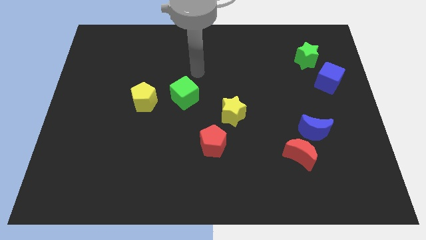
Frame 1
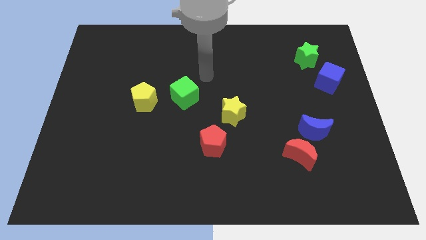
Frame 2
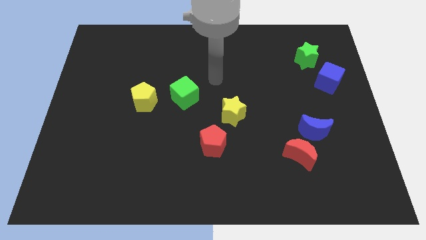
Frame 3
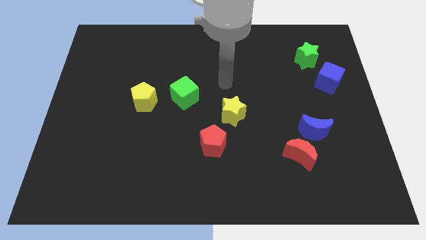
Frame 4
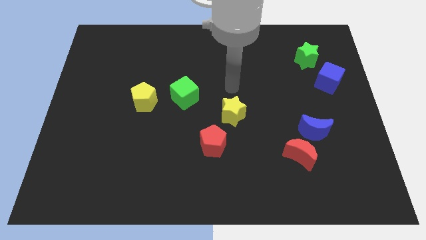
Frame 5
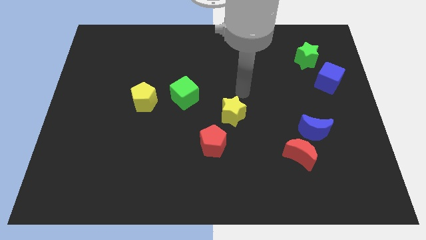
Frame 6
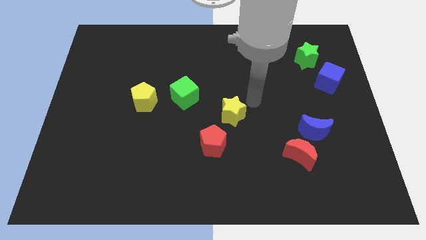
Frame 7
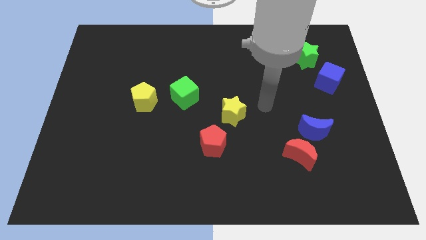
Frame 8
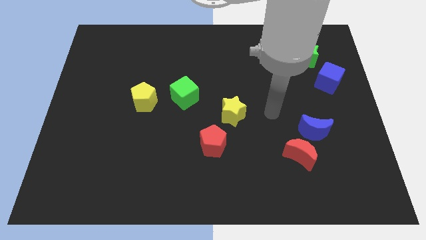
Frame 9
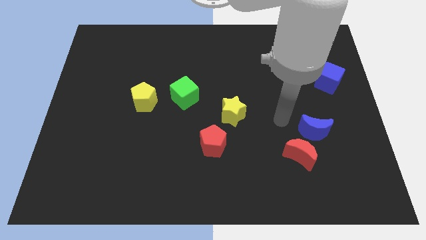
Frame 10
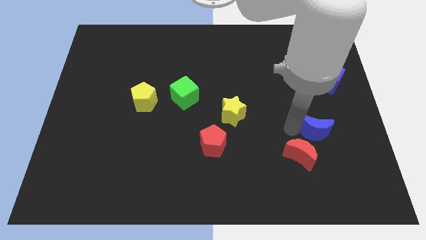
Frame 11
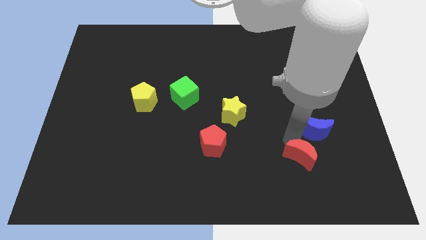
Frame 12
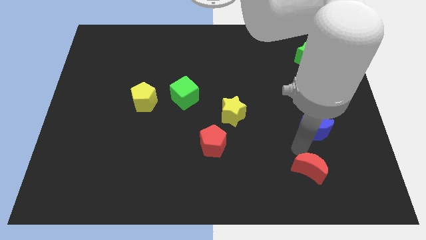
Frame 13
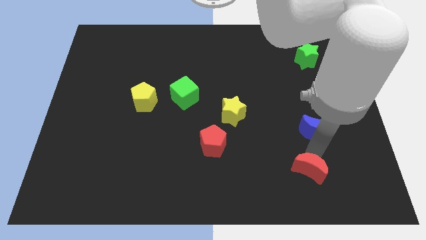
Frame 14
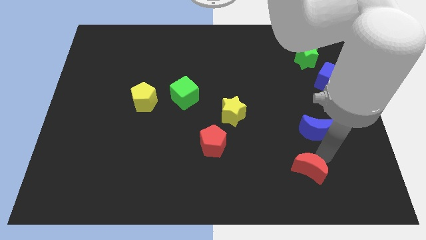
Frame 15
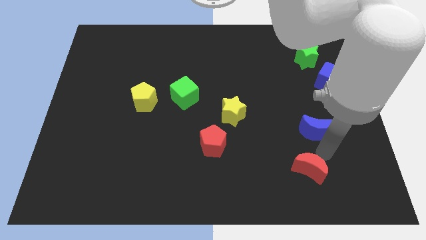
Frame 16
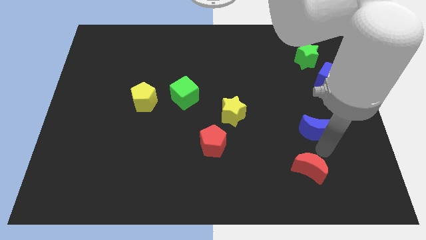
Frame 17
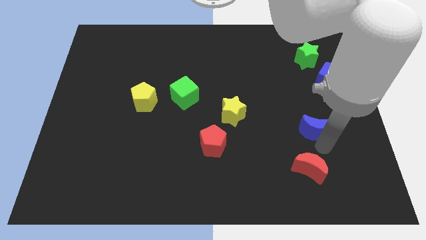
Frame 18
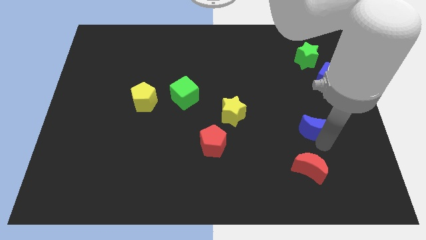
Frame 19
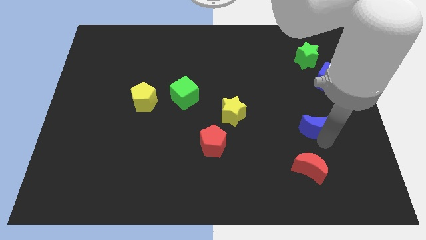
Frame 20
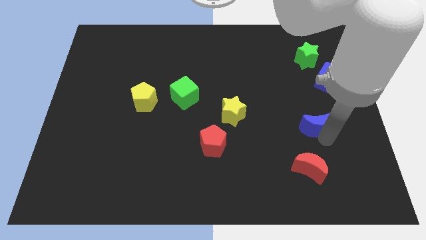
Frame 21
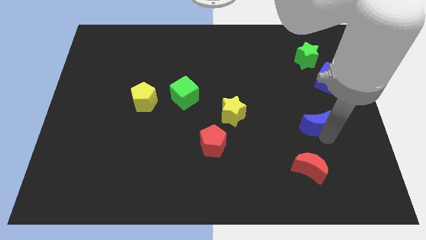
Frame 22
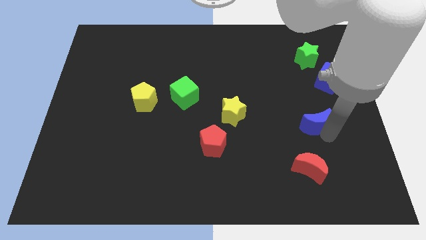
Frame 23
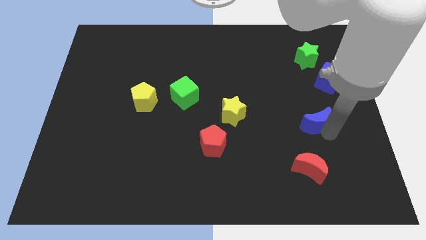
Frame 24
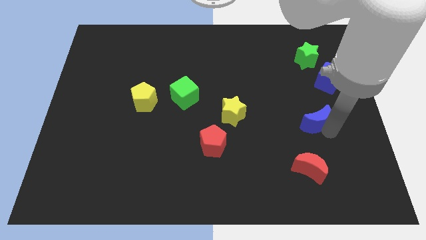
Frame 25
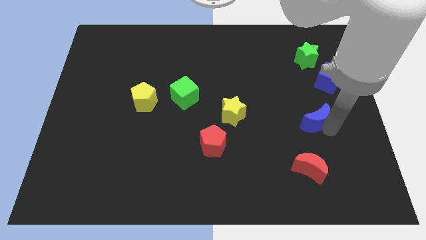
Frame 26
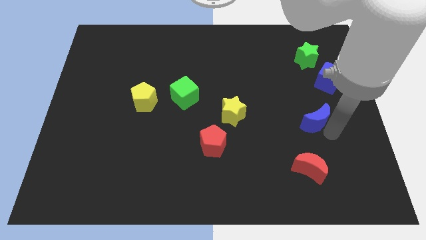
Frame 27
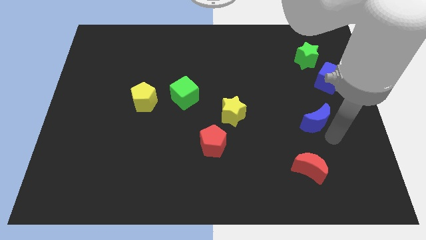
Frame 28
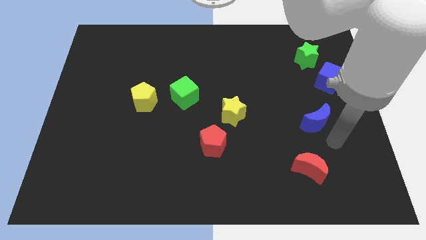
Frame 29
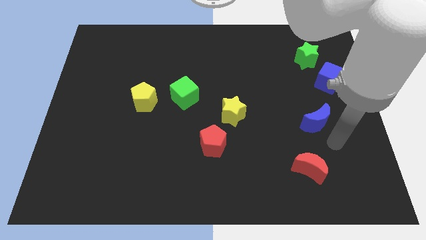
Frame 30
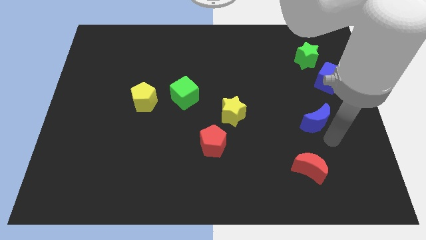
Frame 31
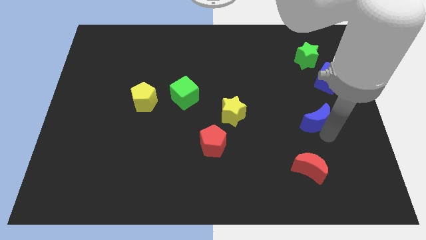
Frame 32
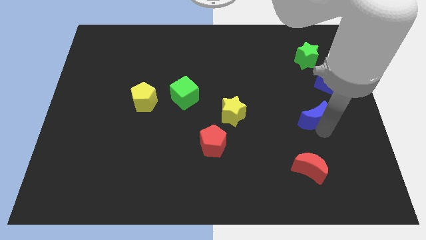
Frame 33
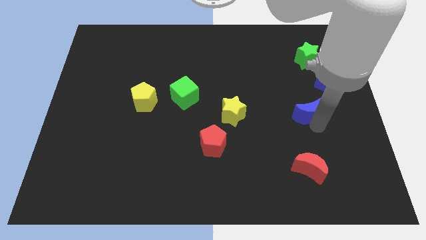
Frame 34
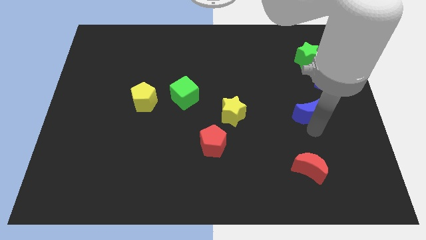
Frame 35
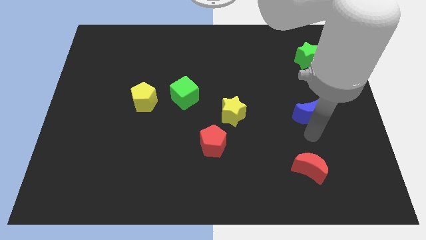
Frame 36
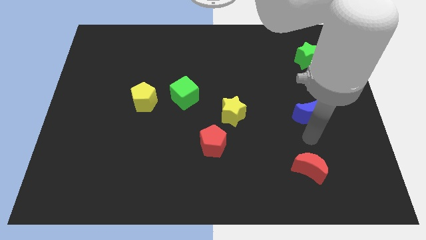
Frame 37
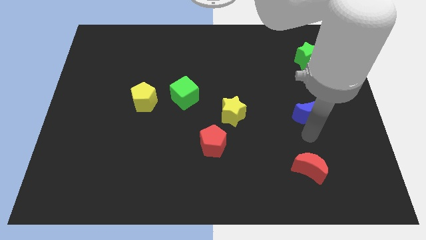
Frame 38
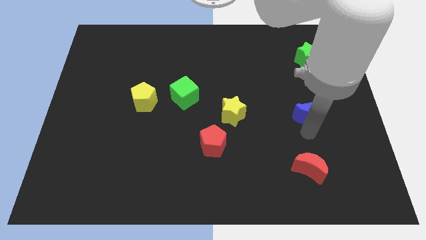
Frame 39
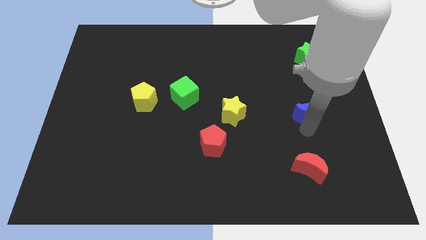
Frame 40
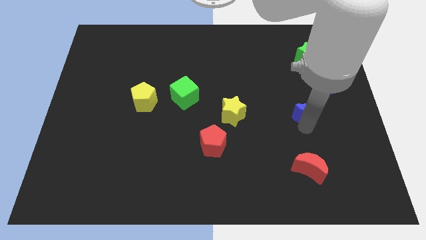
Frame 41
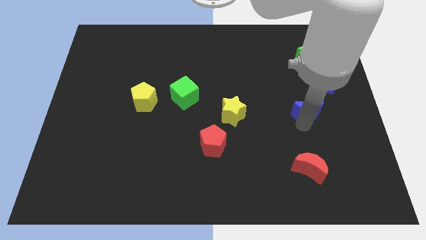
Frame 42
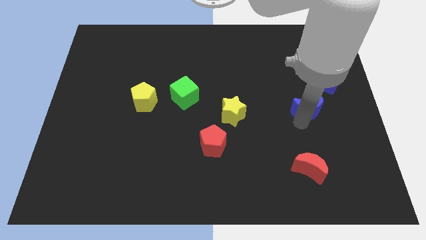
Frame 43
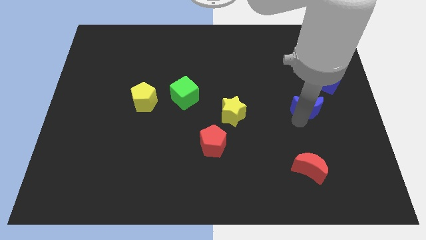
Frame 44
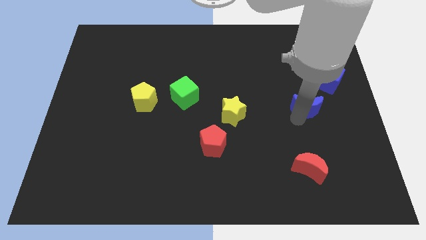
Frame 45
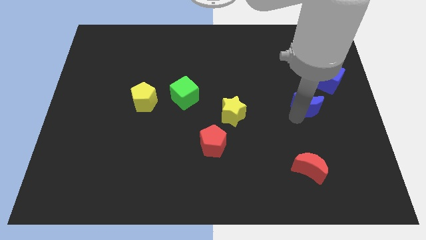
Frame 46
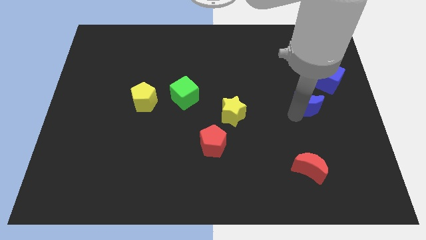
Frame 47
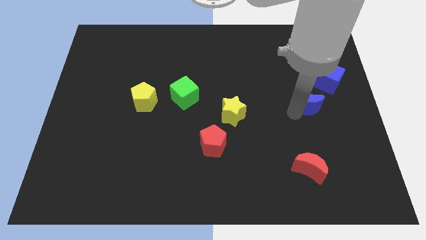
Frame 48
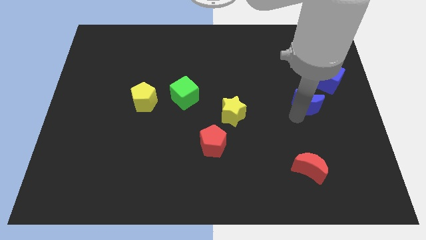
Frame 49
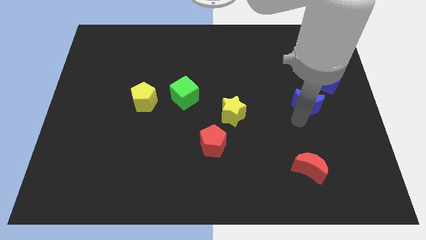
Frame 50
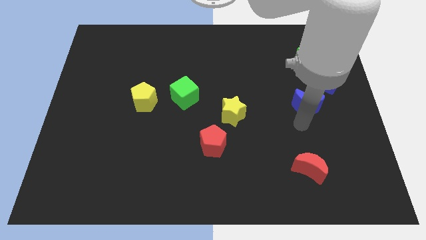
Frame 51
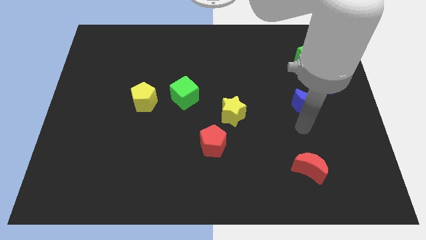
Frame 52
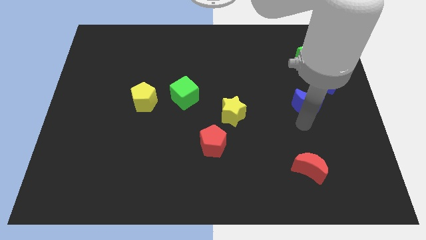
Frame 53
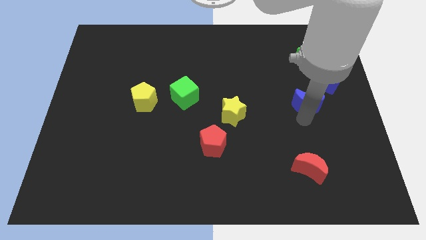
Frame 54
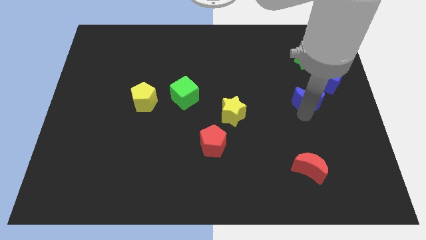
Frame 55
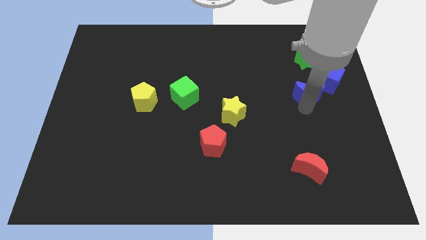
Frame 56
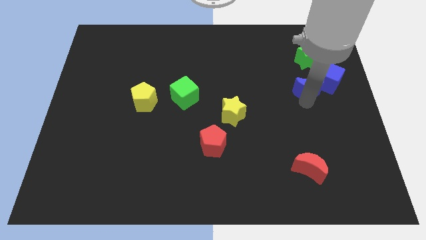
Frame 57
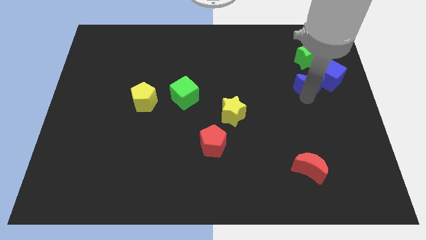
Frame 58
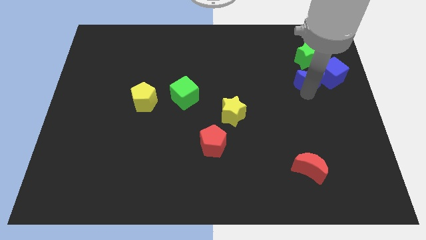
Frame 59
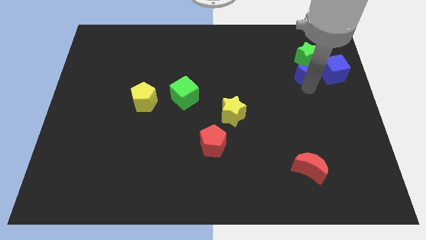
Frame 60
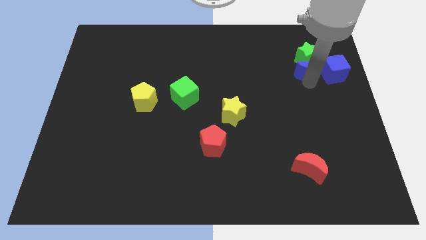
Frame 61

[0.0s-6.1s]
move the blue moon to the green star

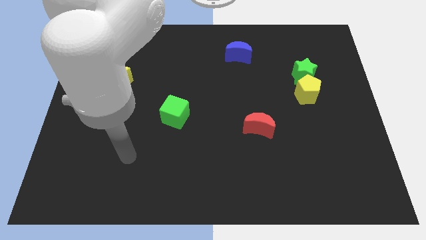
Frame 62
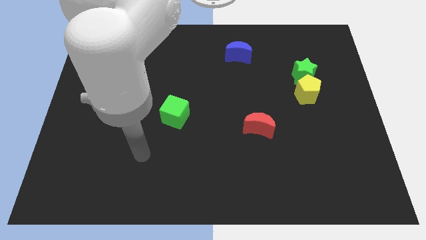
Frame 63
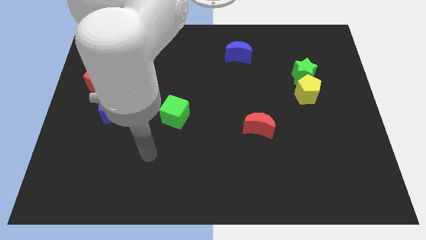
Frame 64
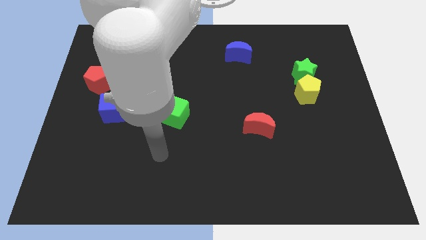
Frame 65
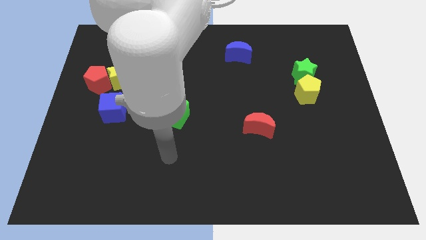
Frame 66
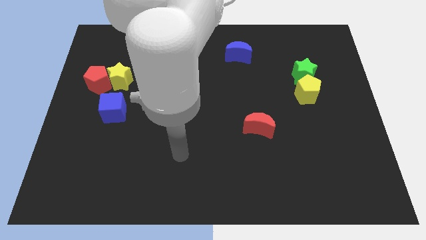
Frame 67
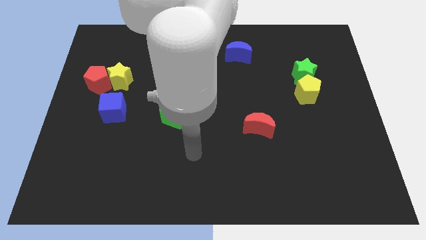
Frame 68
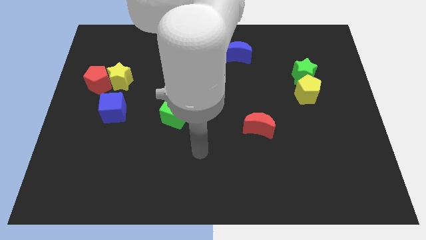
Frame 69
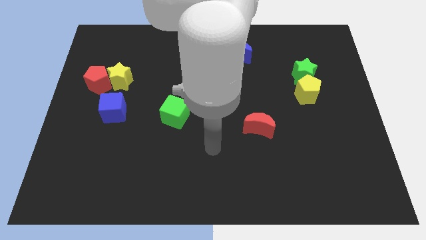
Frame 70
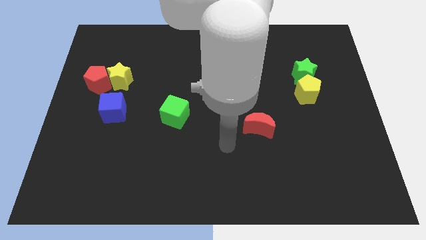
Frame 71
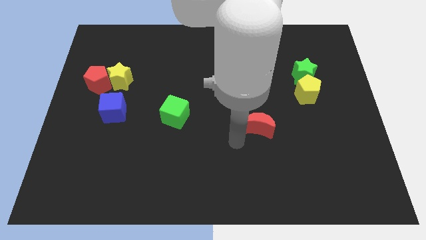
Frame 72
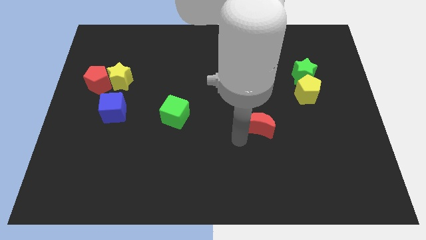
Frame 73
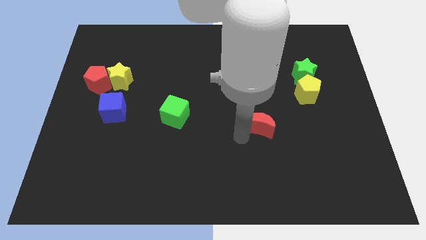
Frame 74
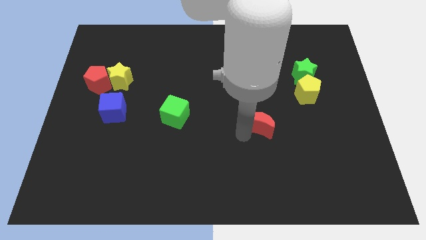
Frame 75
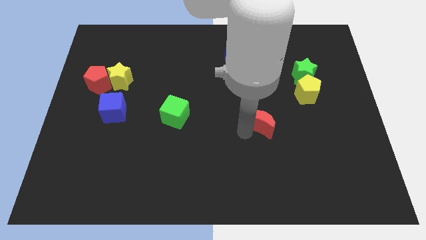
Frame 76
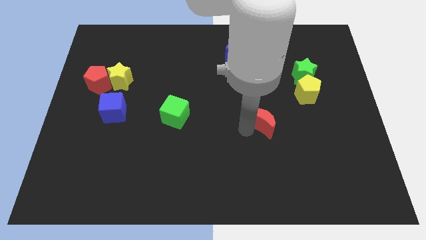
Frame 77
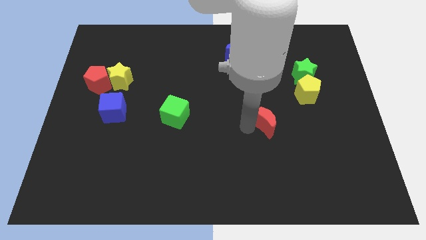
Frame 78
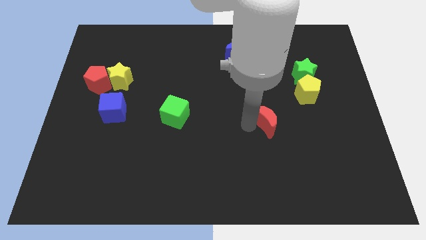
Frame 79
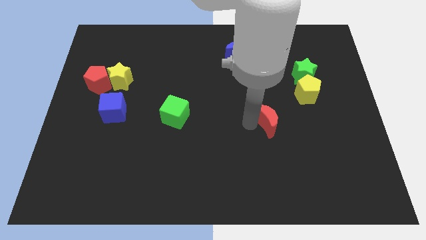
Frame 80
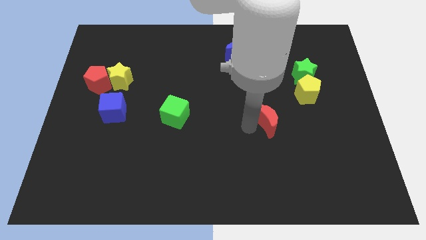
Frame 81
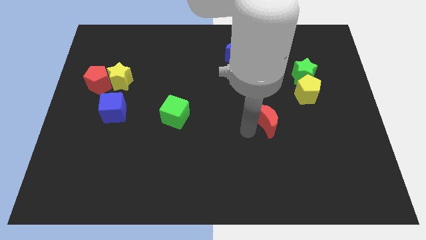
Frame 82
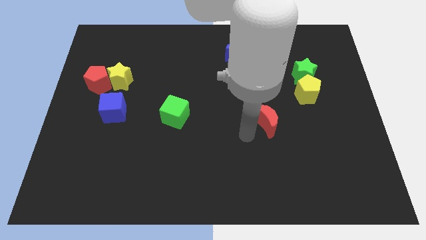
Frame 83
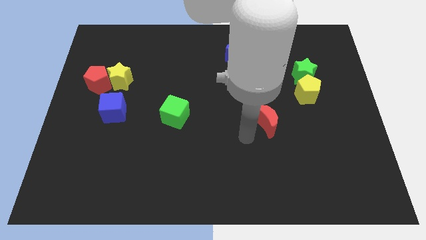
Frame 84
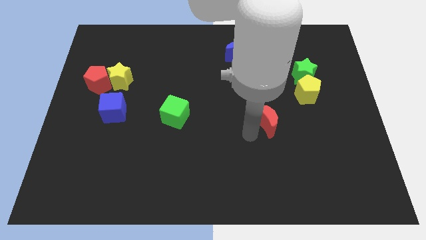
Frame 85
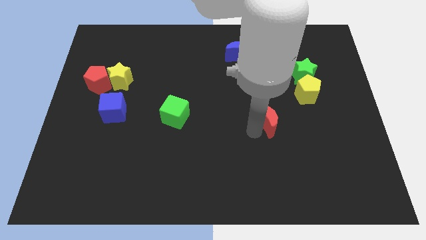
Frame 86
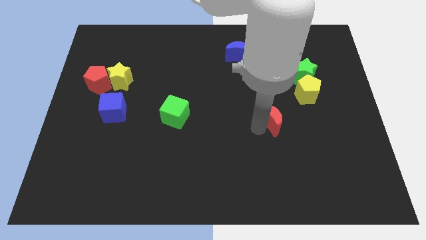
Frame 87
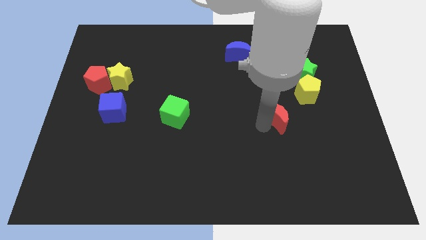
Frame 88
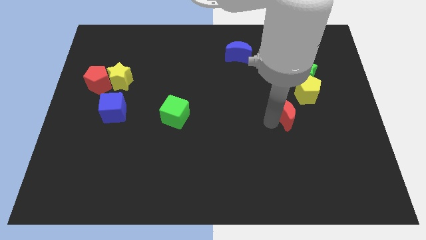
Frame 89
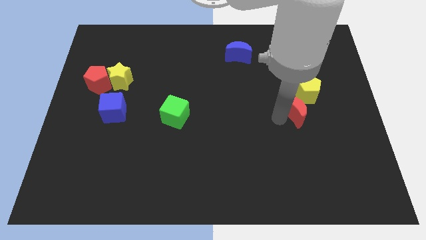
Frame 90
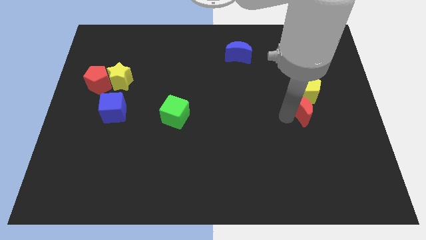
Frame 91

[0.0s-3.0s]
move the red moon towards the yellow pentagon
